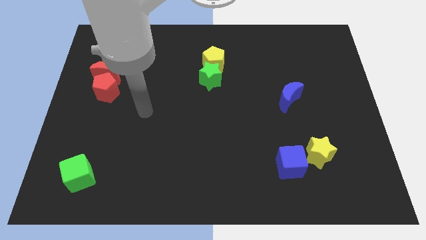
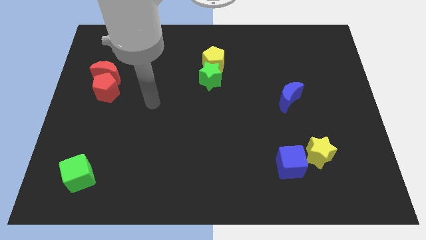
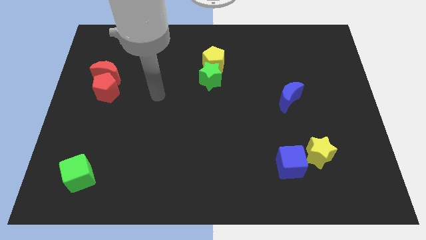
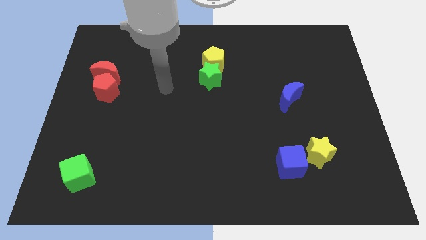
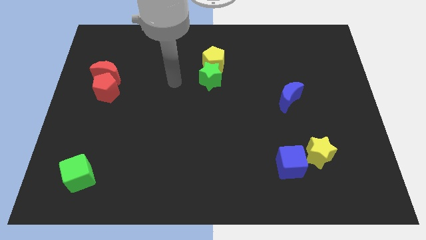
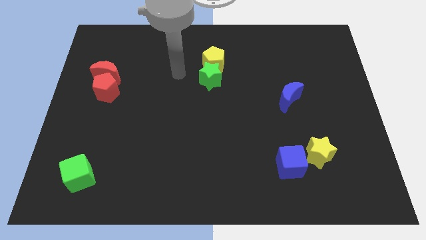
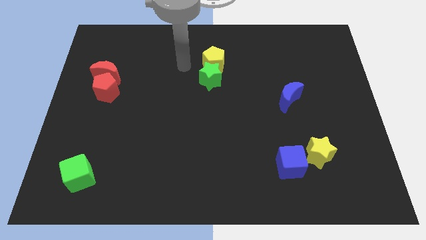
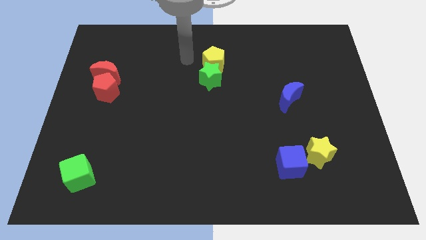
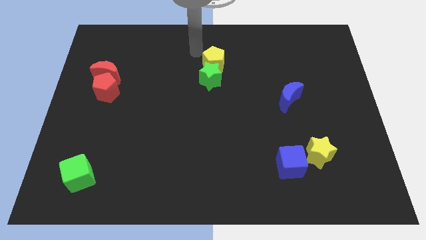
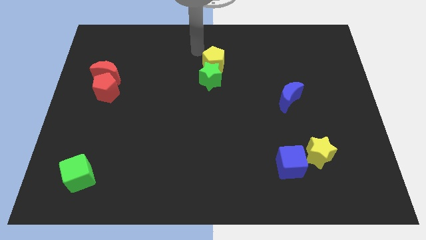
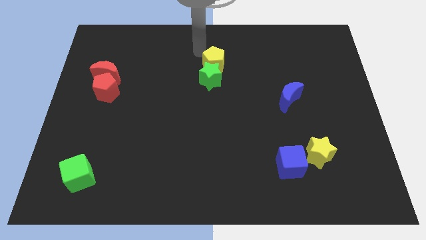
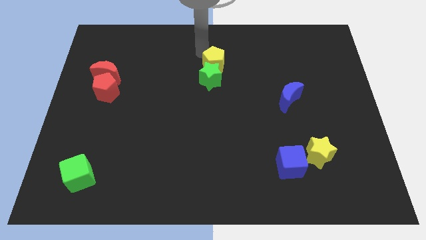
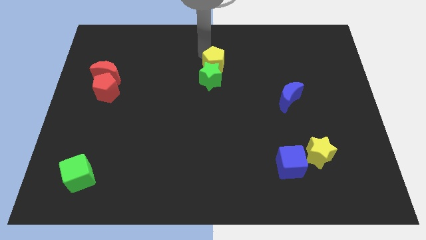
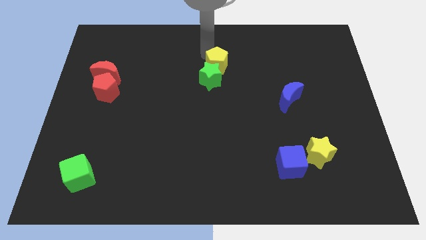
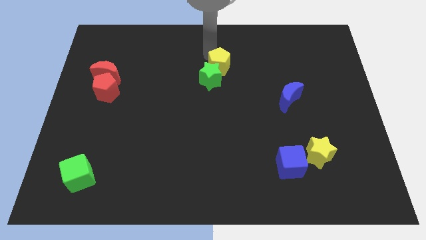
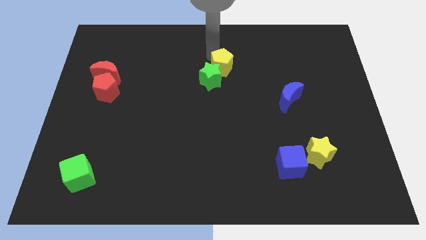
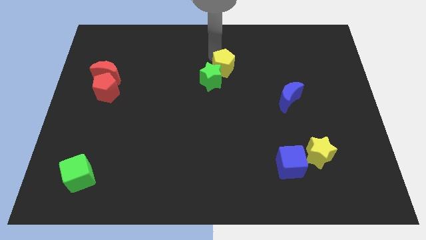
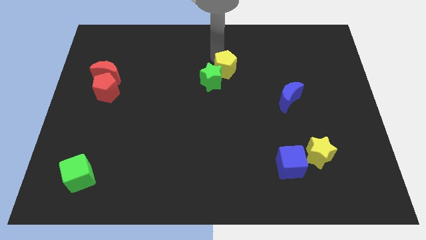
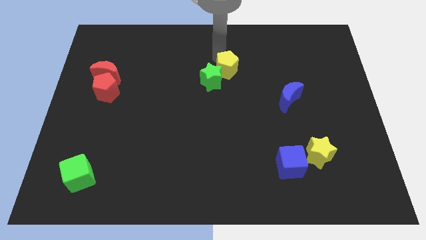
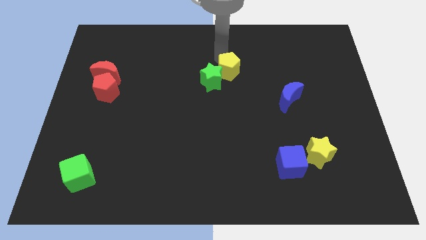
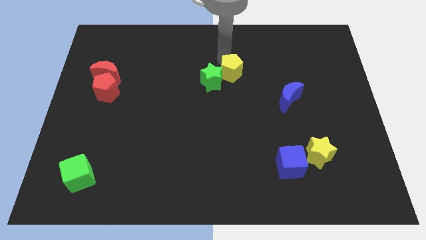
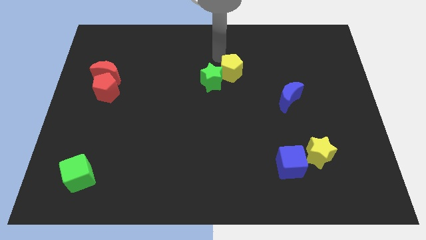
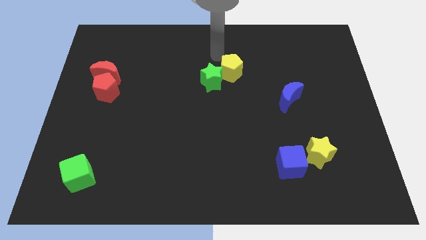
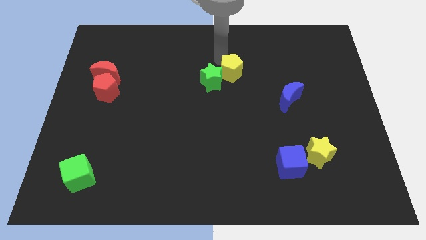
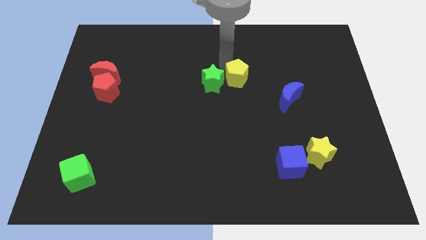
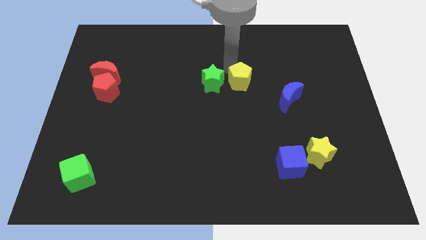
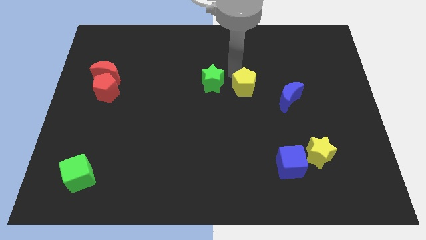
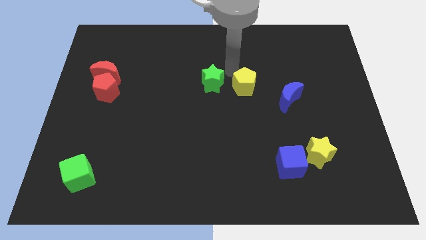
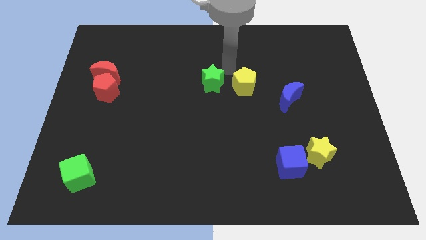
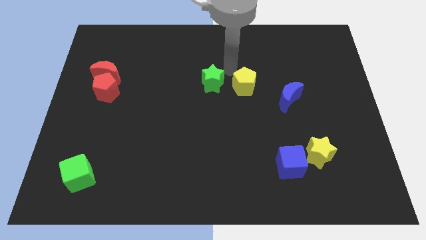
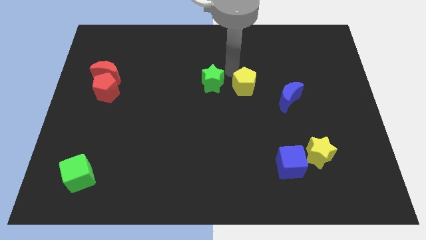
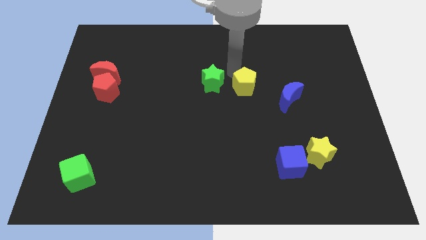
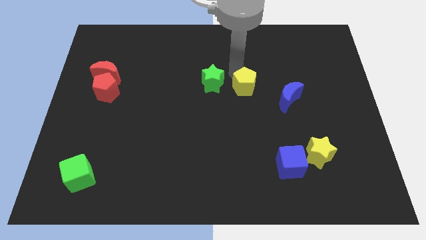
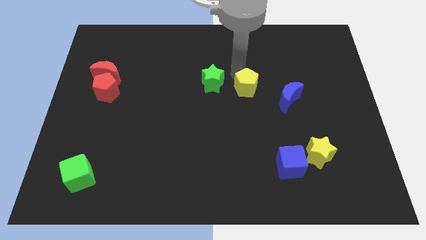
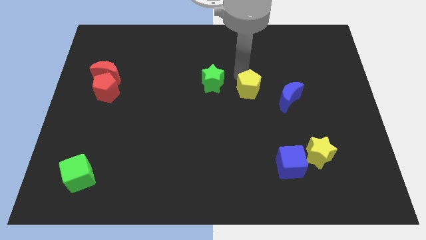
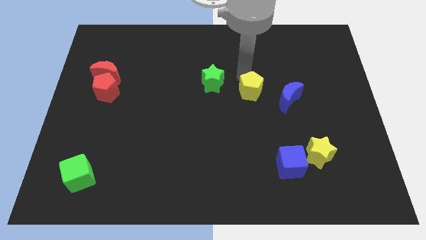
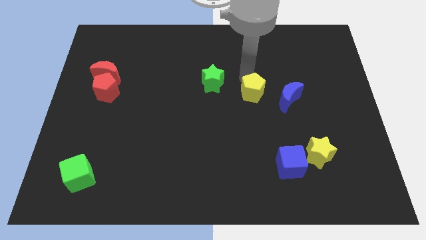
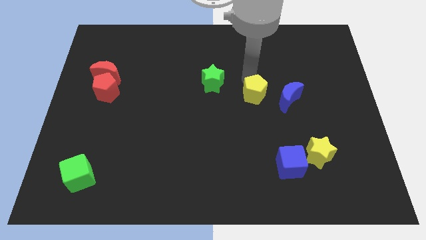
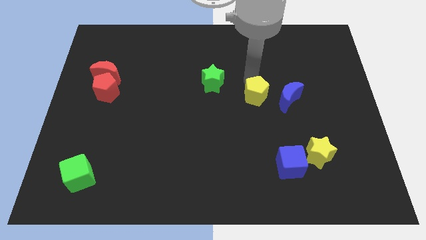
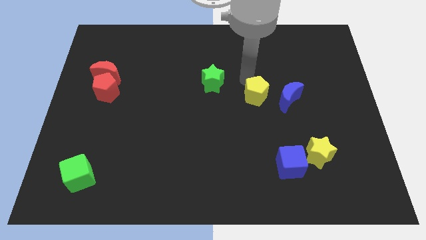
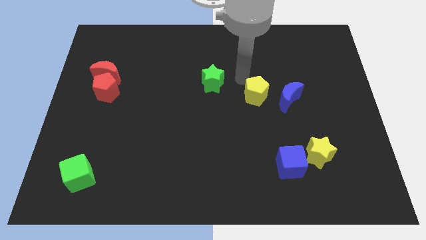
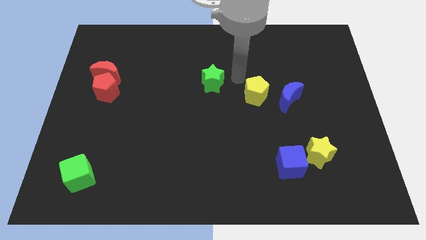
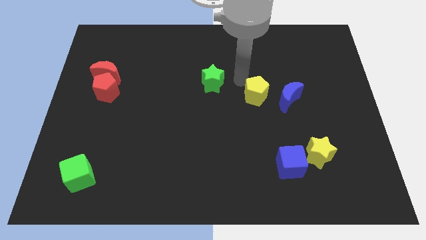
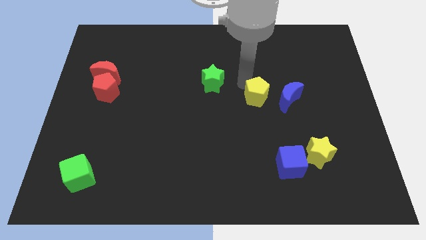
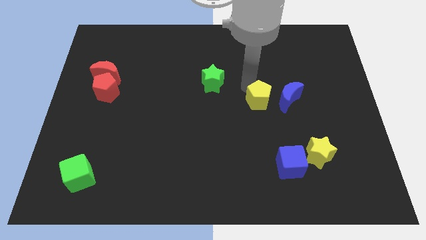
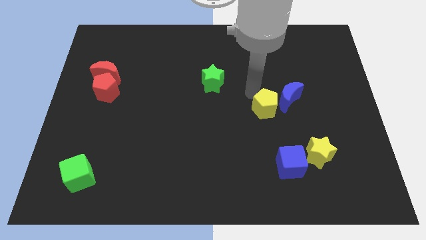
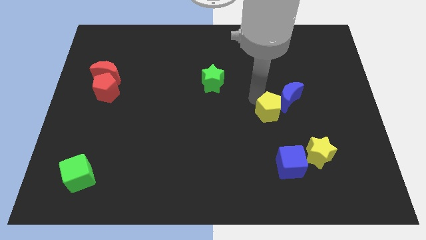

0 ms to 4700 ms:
slide the yellow pentagon downwards and to the right

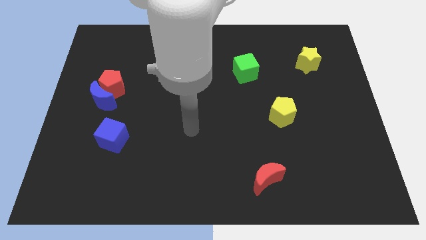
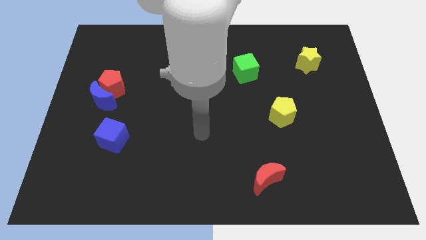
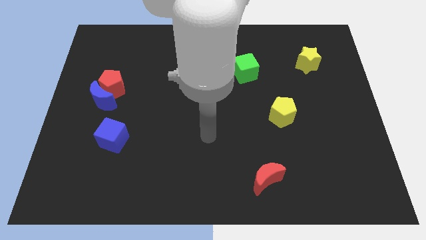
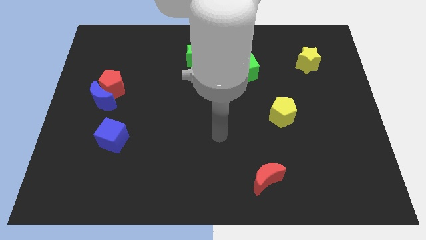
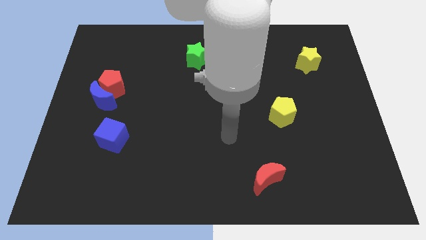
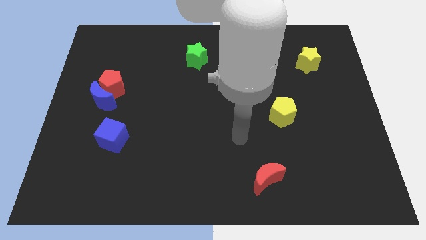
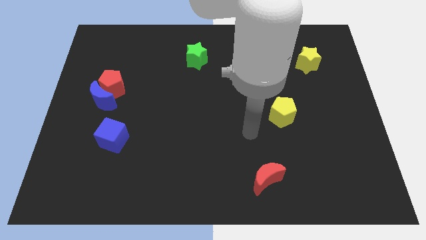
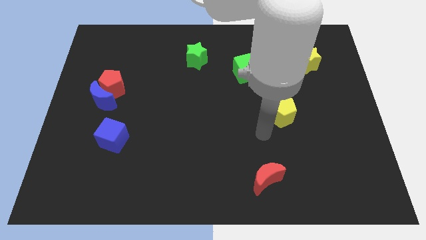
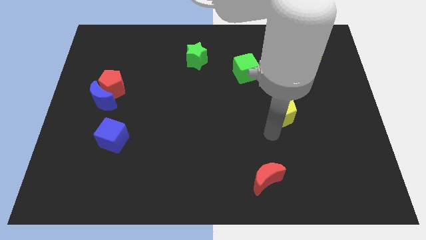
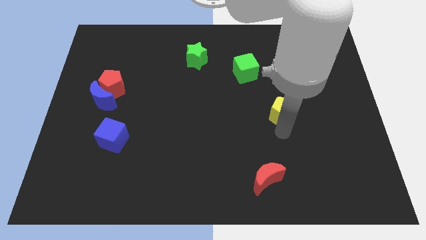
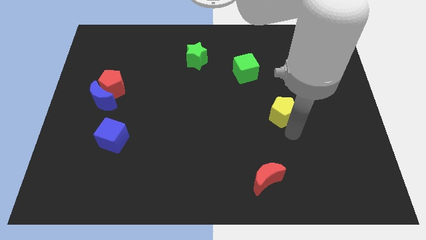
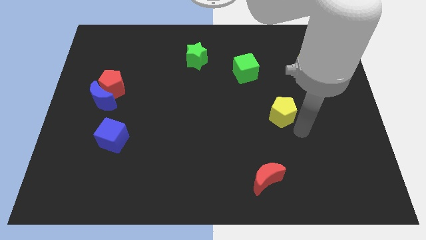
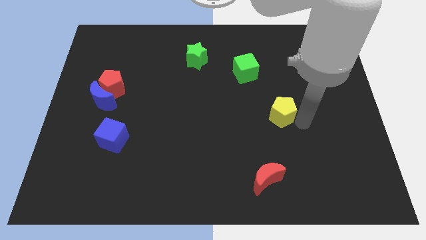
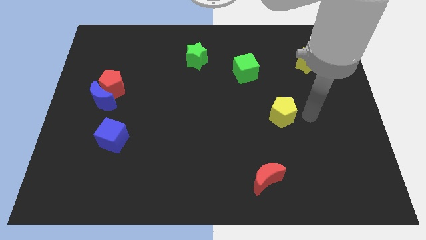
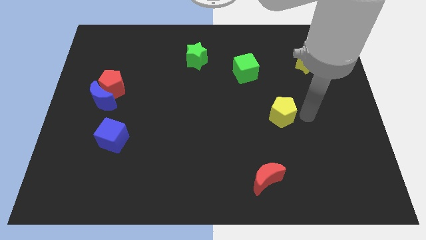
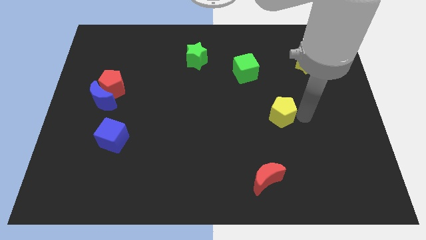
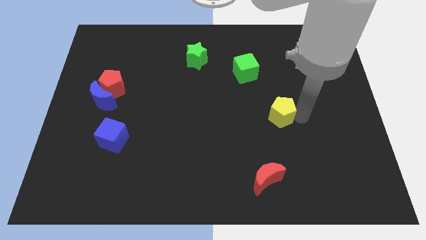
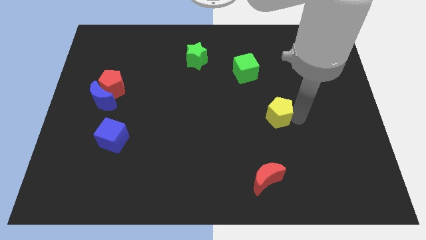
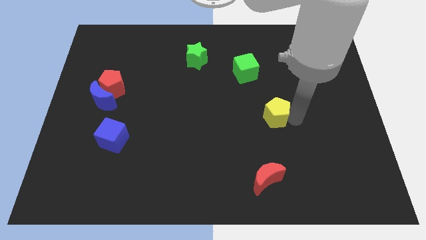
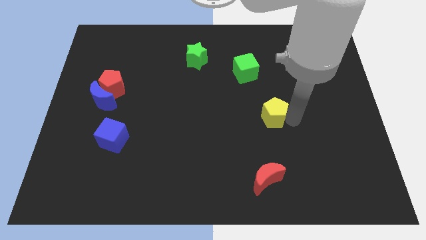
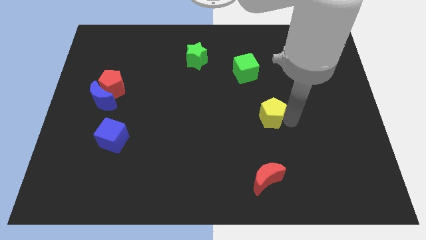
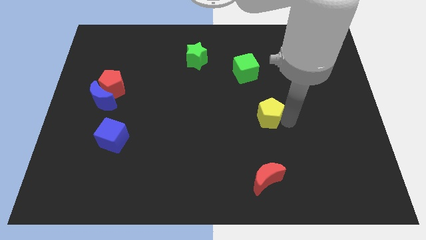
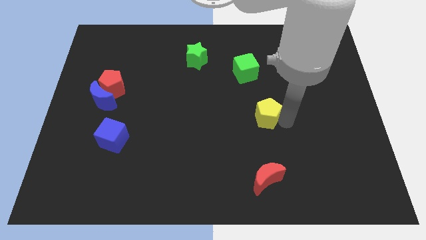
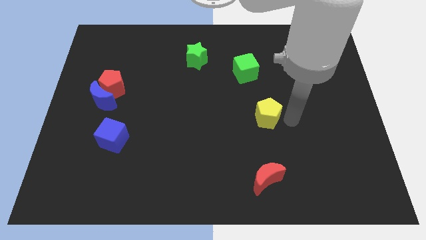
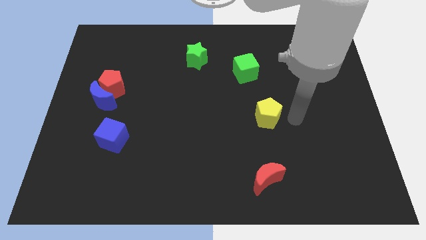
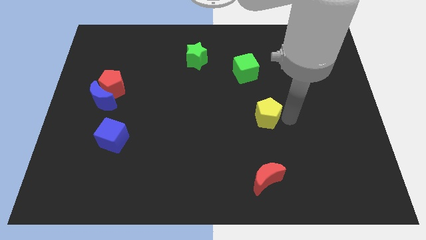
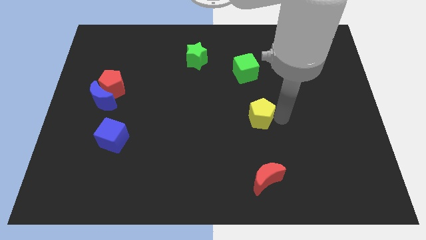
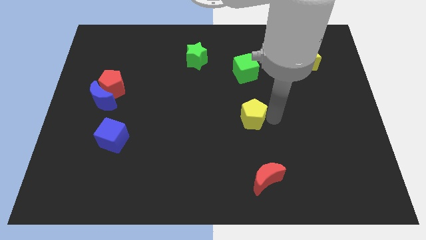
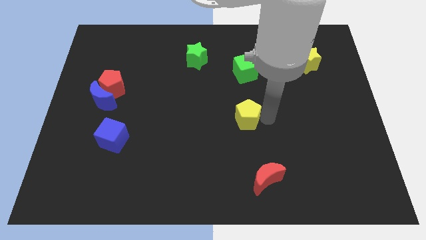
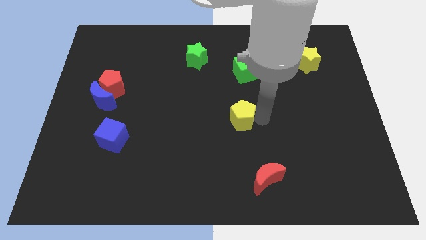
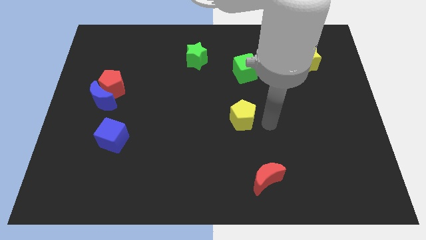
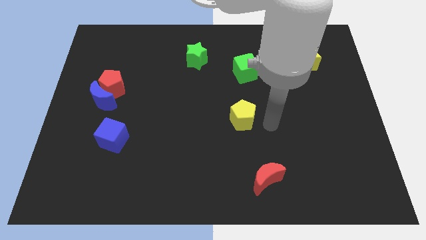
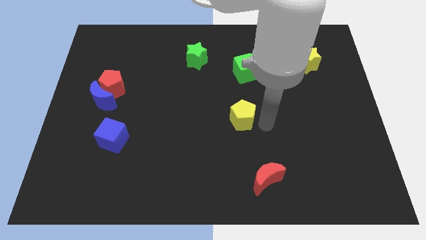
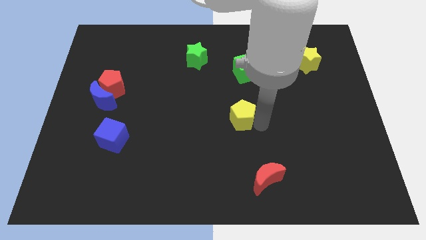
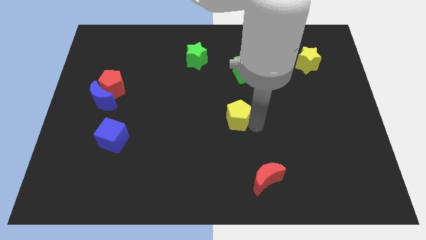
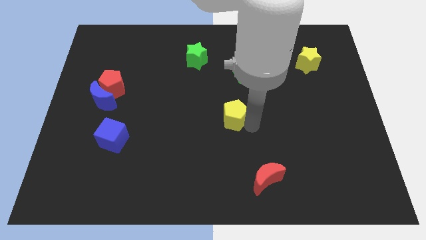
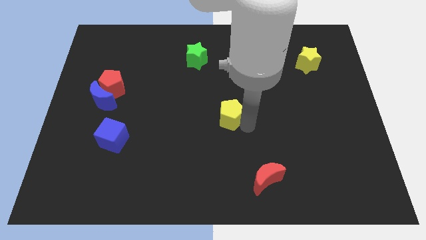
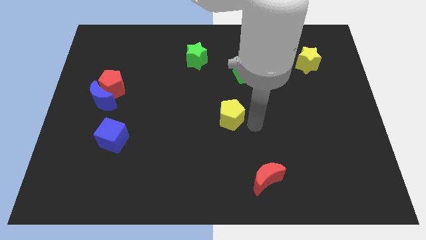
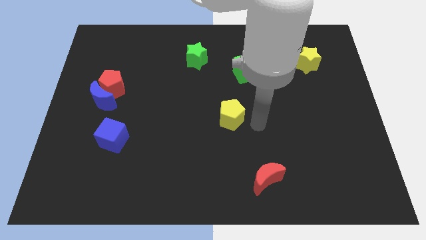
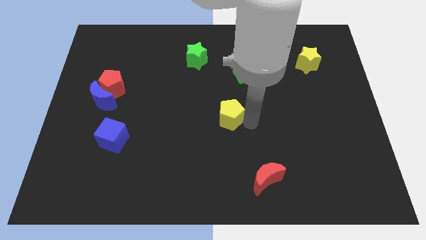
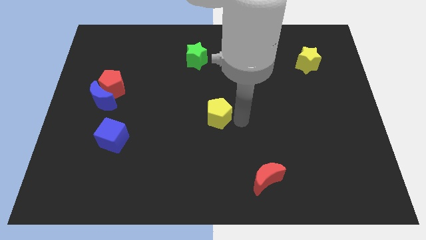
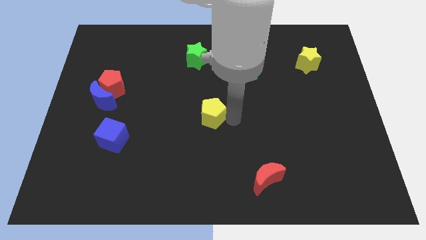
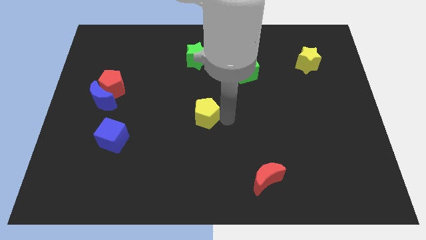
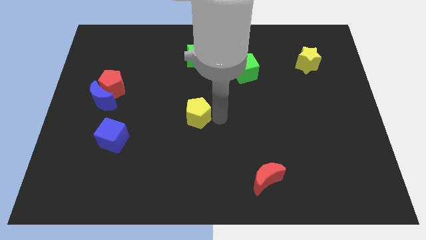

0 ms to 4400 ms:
slide the yellow pentagon to the left
